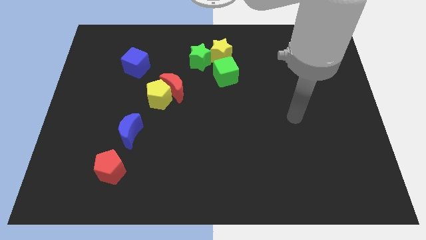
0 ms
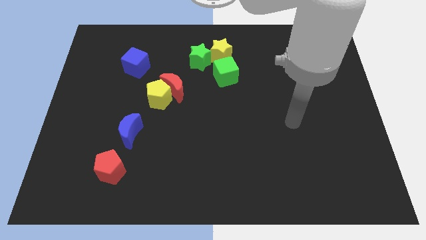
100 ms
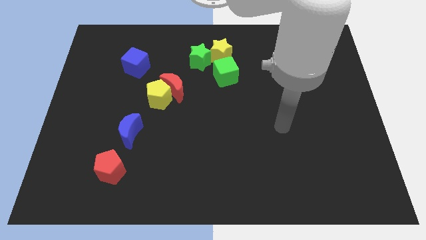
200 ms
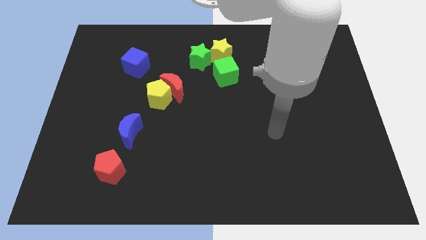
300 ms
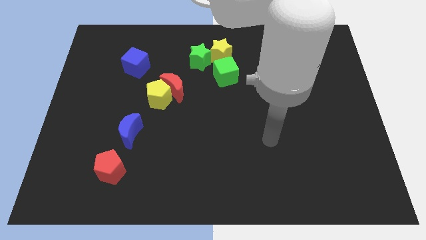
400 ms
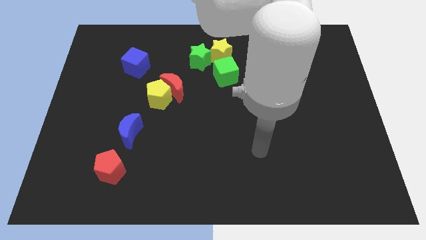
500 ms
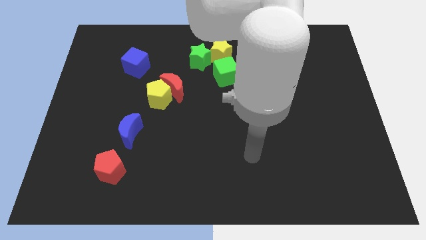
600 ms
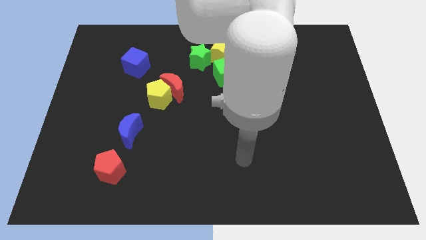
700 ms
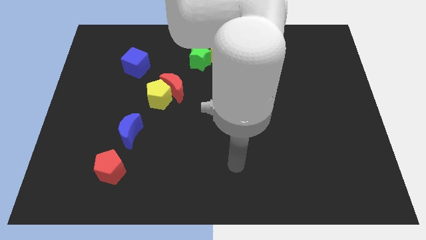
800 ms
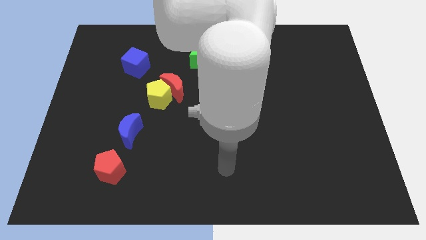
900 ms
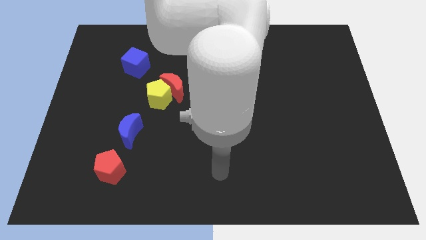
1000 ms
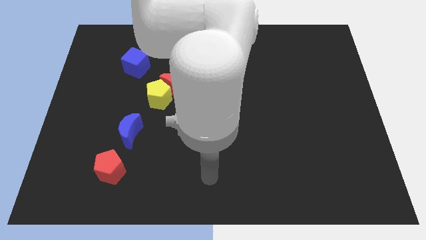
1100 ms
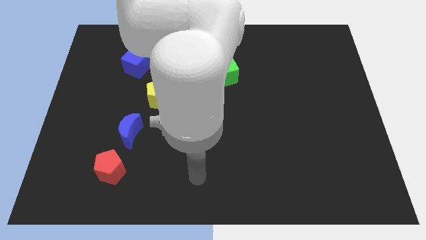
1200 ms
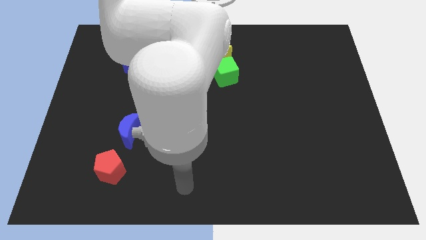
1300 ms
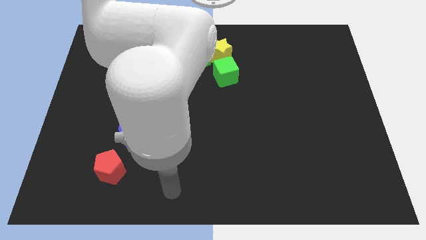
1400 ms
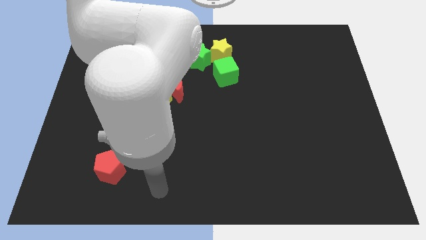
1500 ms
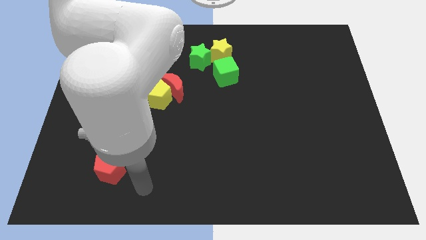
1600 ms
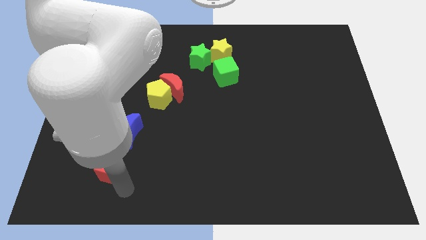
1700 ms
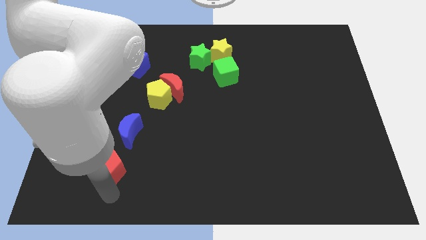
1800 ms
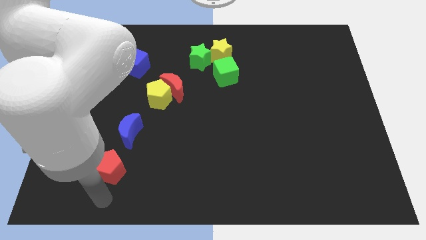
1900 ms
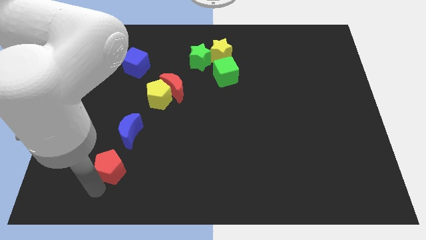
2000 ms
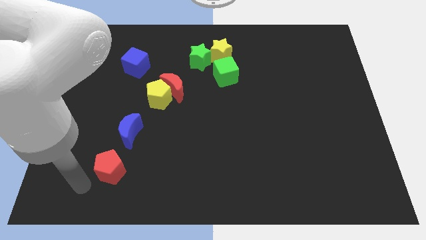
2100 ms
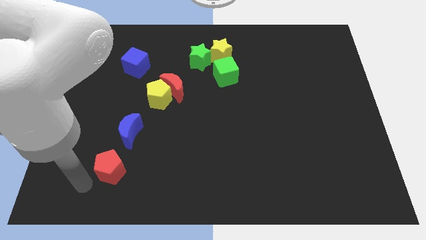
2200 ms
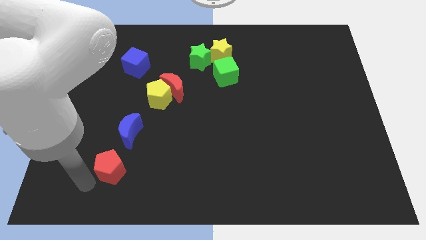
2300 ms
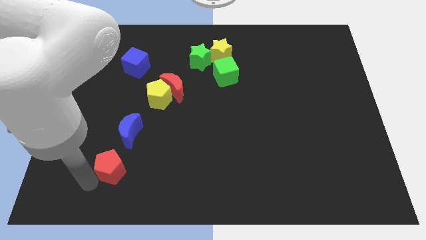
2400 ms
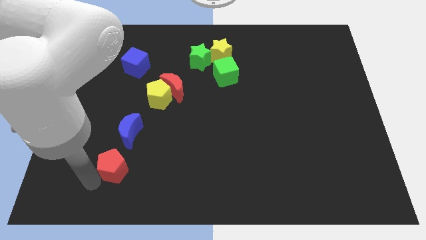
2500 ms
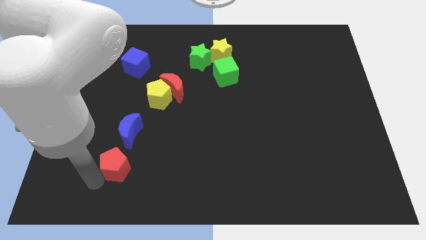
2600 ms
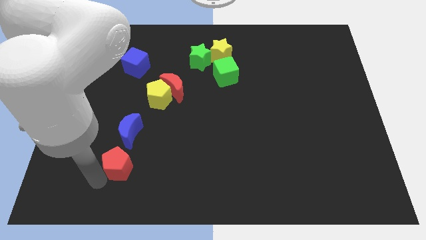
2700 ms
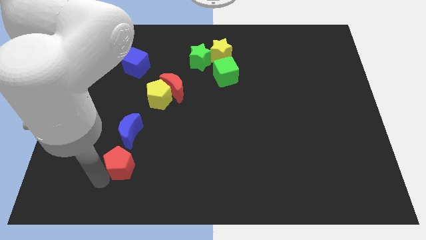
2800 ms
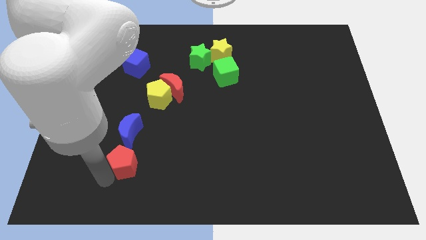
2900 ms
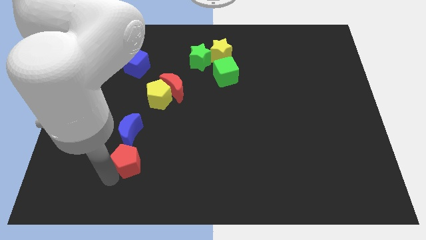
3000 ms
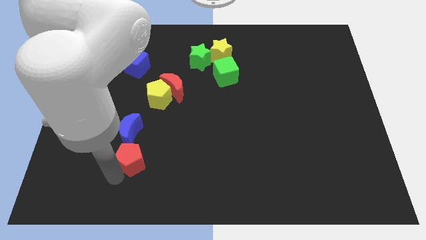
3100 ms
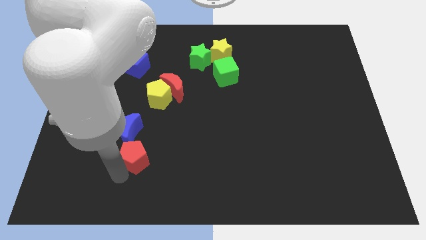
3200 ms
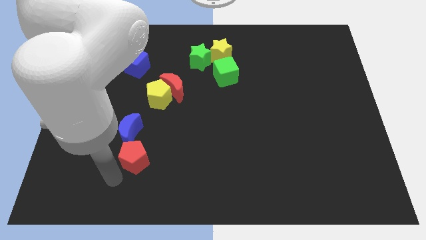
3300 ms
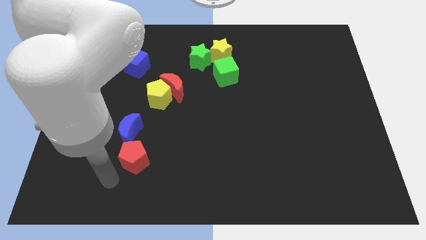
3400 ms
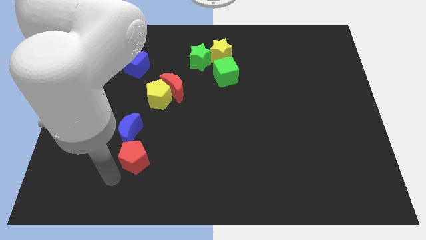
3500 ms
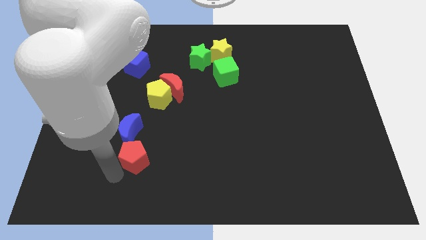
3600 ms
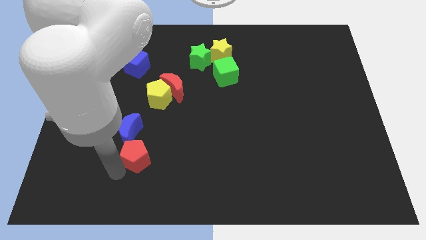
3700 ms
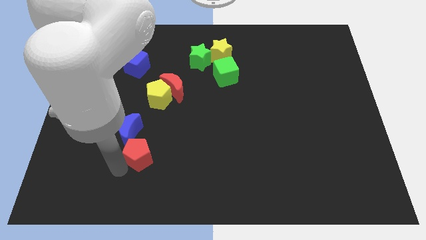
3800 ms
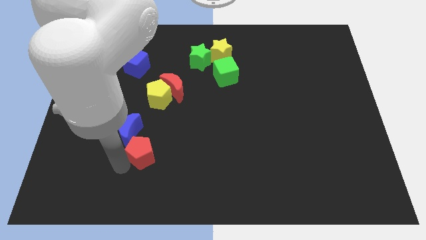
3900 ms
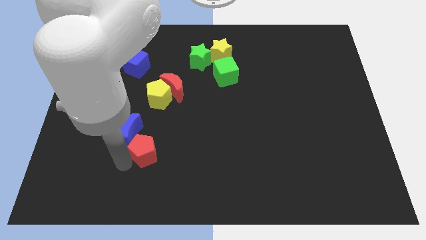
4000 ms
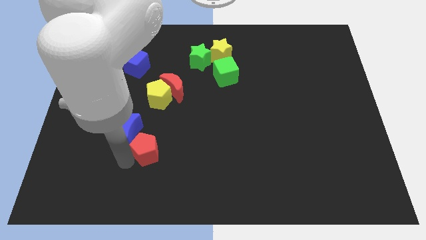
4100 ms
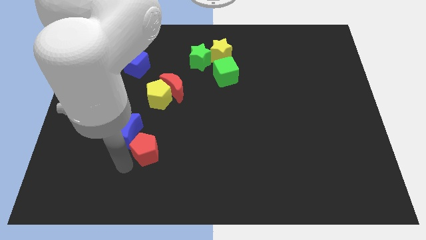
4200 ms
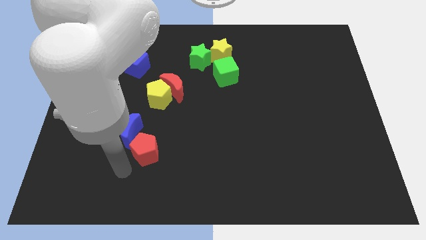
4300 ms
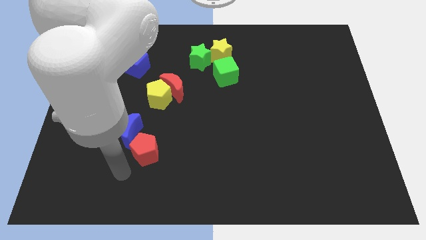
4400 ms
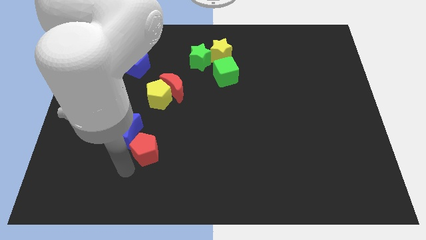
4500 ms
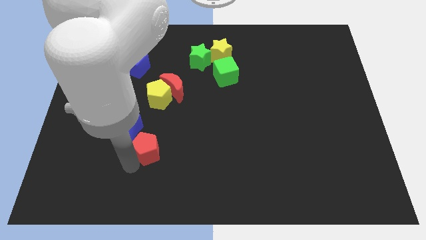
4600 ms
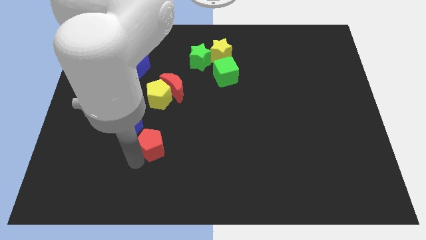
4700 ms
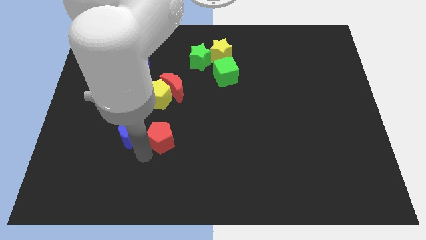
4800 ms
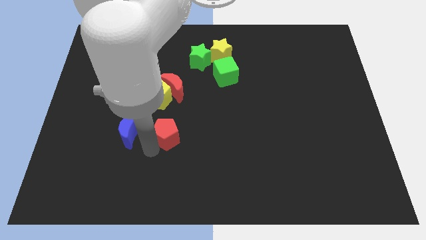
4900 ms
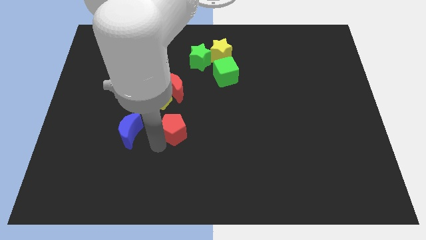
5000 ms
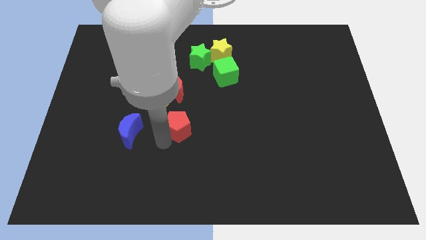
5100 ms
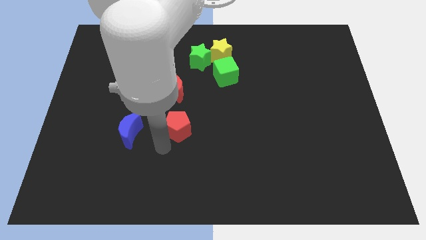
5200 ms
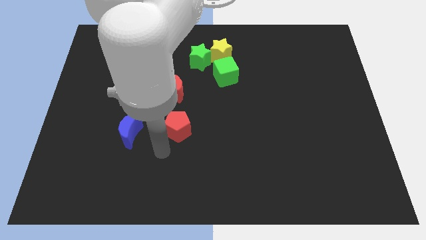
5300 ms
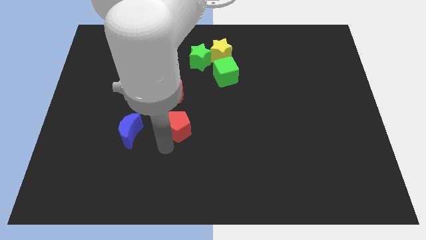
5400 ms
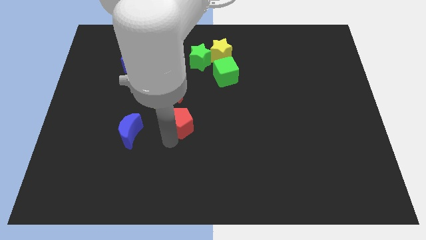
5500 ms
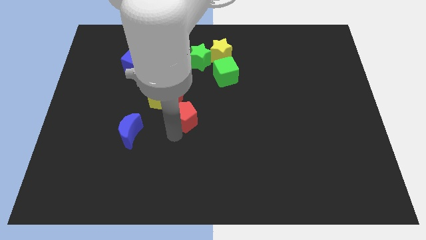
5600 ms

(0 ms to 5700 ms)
put the red pentagon to the bottom right side of the red moon

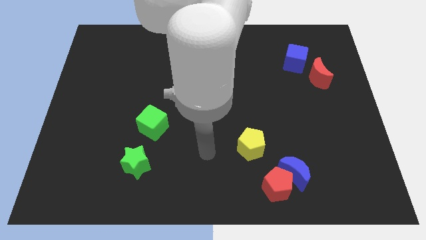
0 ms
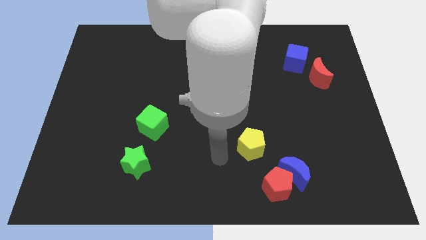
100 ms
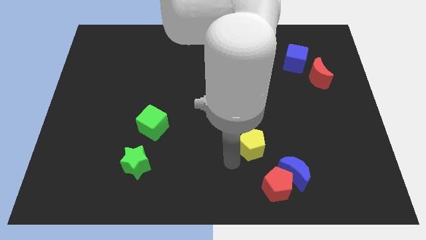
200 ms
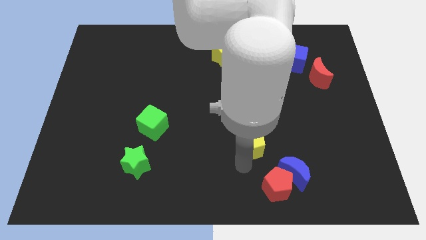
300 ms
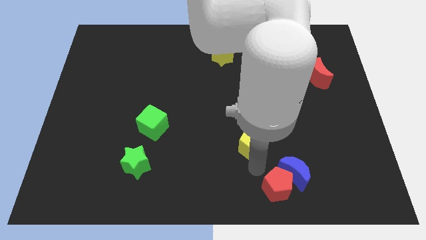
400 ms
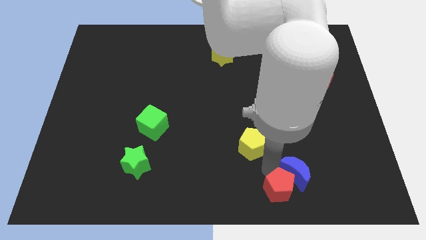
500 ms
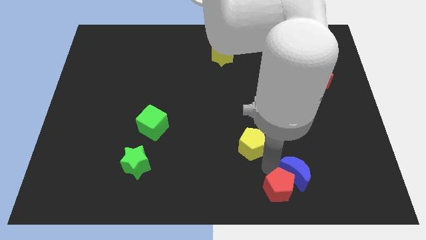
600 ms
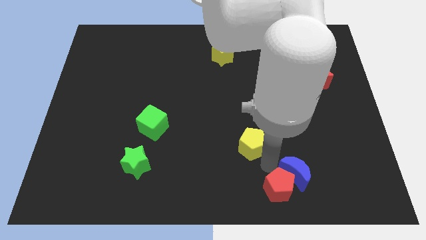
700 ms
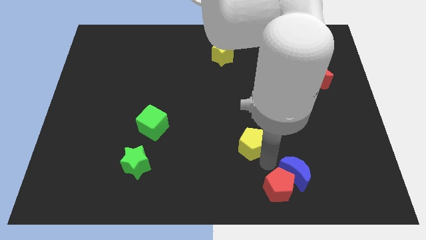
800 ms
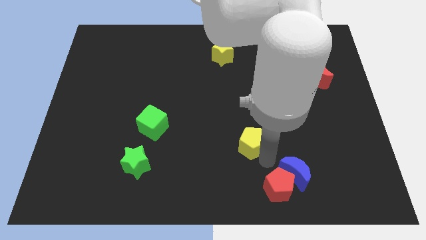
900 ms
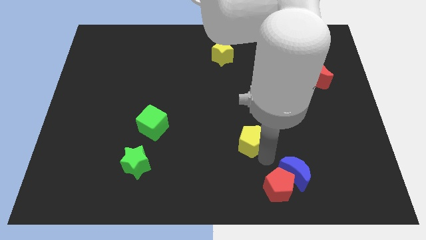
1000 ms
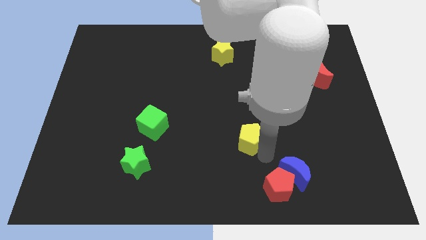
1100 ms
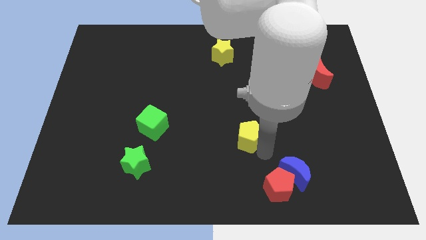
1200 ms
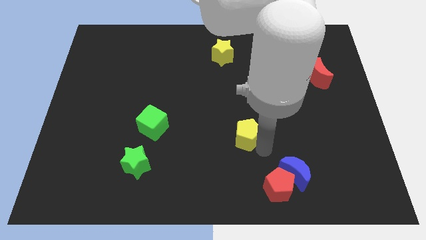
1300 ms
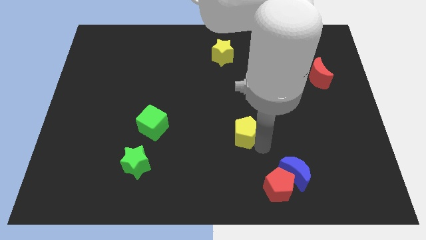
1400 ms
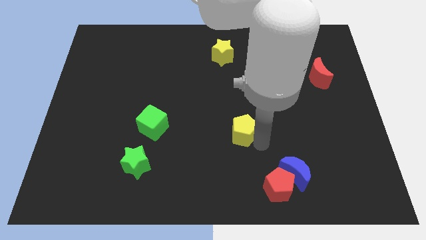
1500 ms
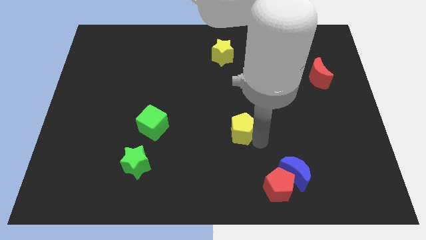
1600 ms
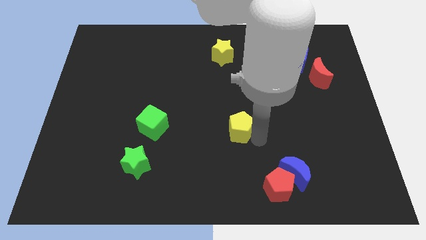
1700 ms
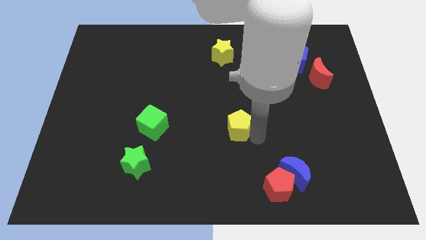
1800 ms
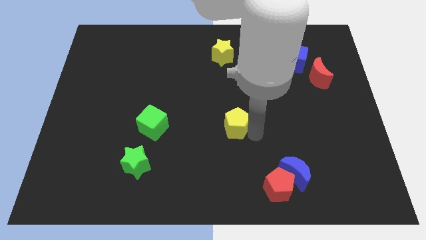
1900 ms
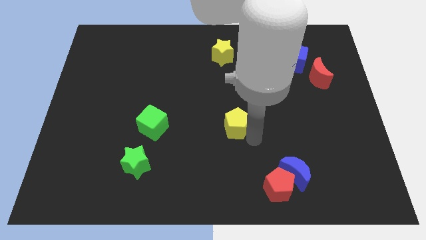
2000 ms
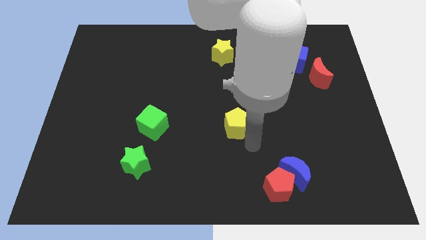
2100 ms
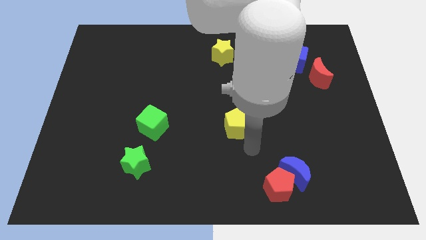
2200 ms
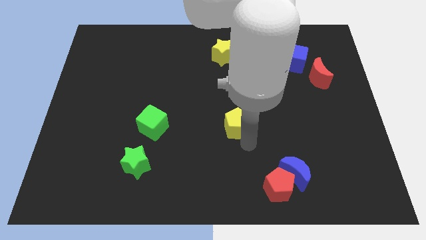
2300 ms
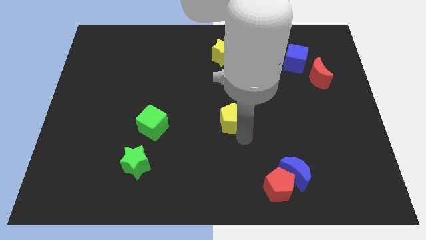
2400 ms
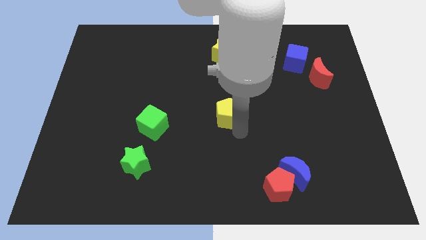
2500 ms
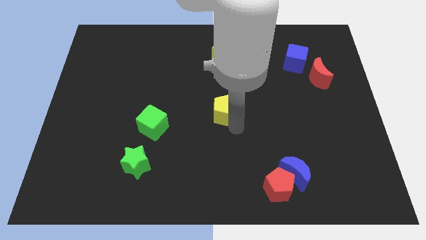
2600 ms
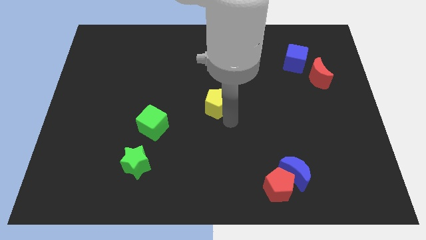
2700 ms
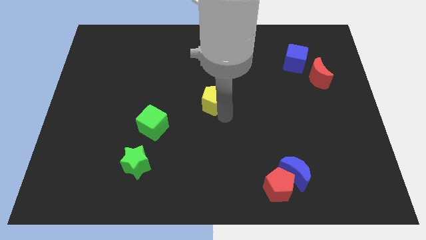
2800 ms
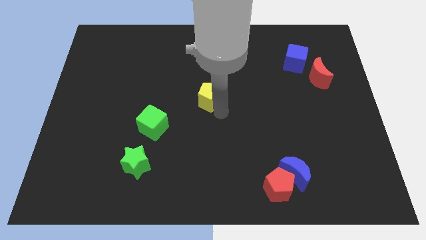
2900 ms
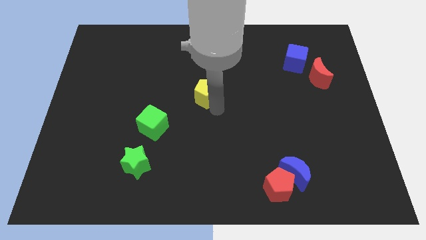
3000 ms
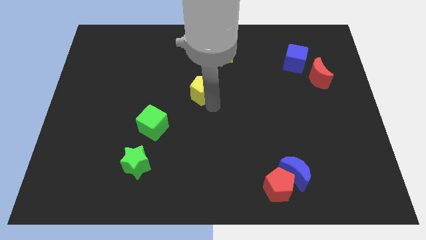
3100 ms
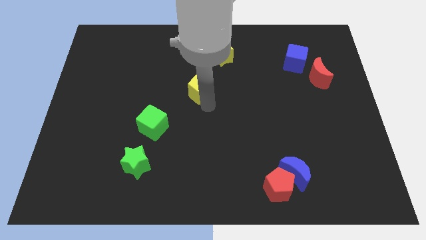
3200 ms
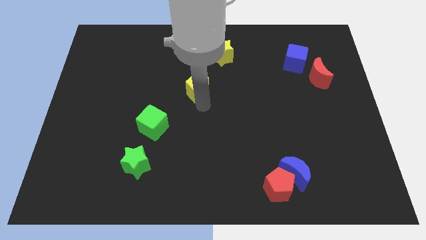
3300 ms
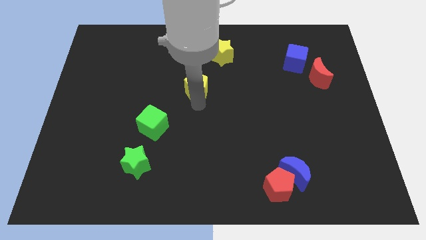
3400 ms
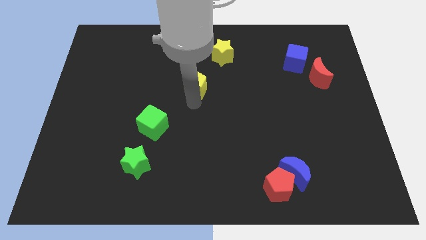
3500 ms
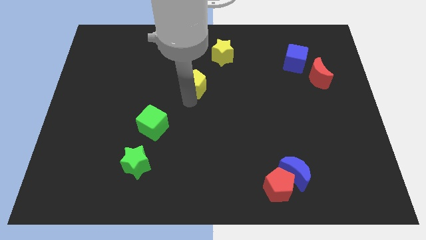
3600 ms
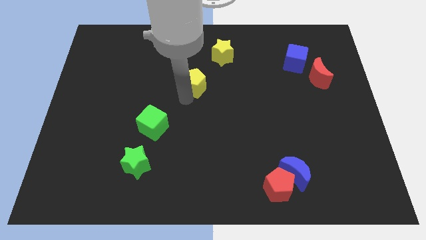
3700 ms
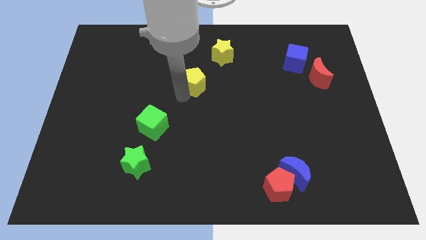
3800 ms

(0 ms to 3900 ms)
slide the yellow pentagon to the bottom left of the yellow star
